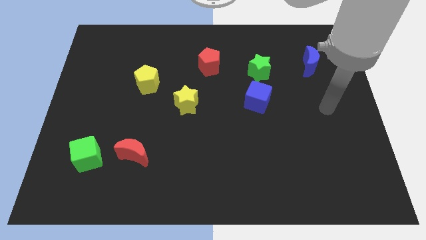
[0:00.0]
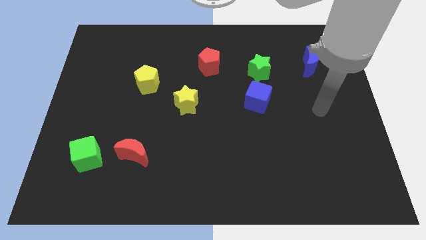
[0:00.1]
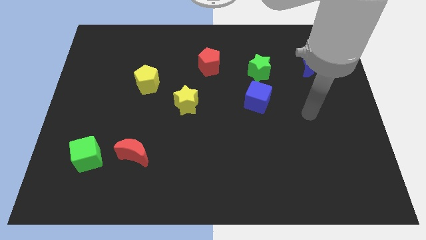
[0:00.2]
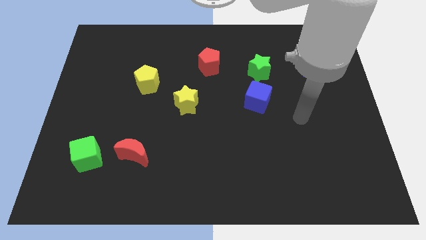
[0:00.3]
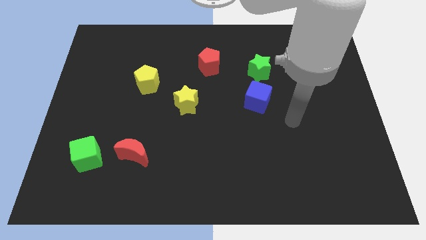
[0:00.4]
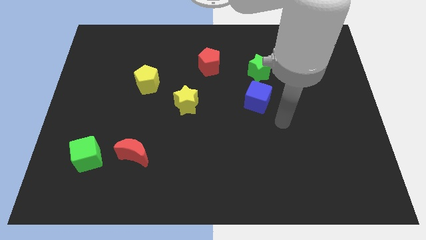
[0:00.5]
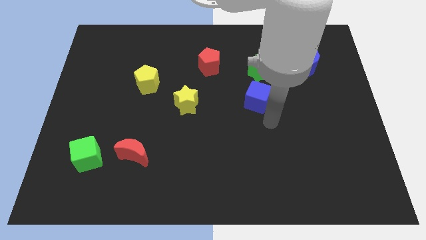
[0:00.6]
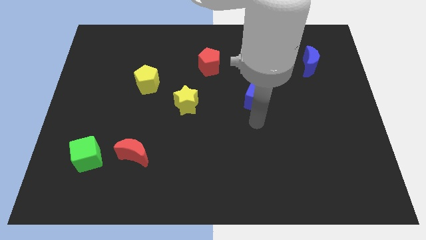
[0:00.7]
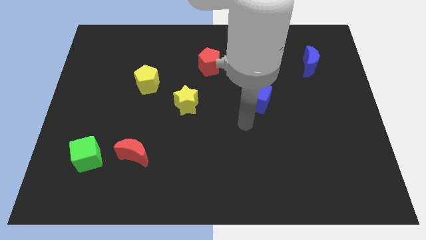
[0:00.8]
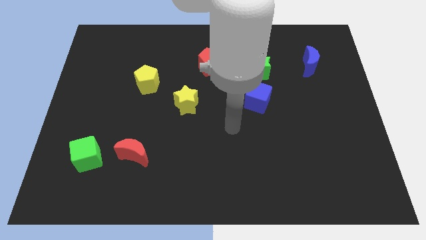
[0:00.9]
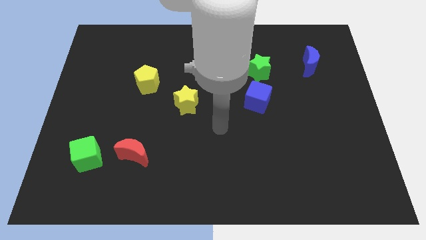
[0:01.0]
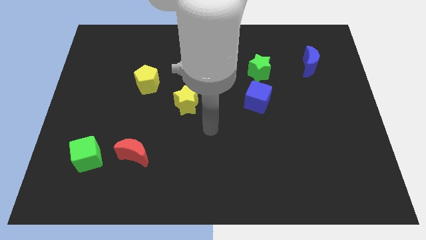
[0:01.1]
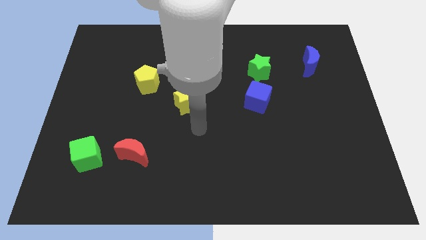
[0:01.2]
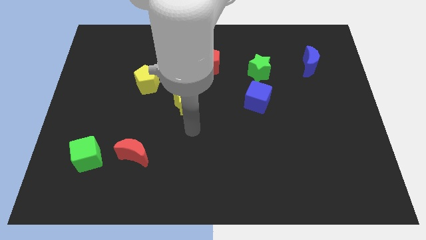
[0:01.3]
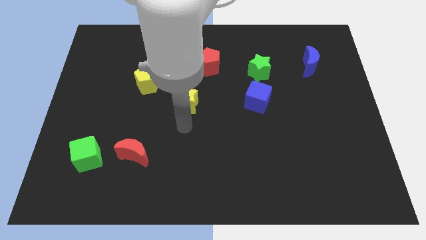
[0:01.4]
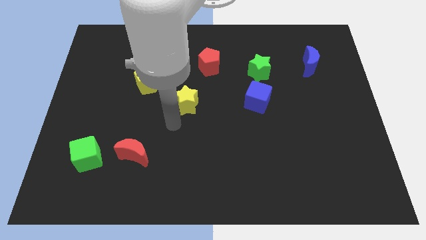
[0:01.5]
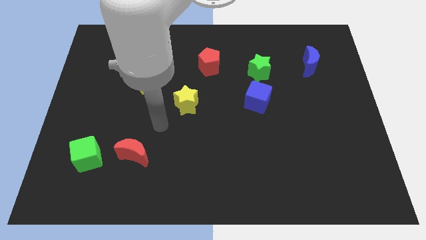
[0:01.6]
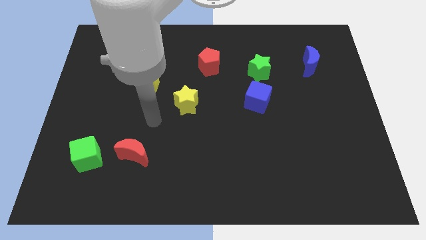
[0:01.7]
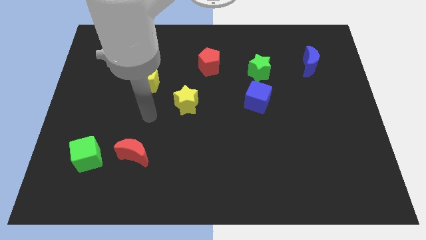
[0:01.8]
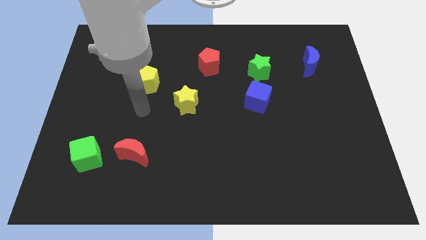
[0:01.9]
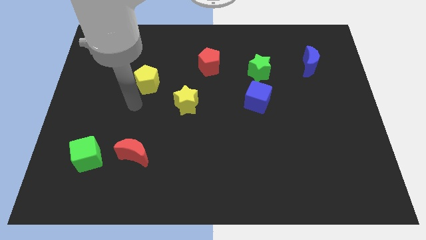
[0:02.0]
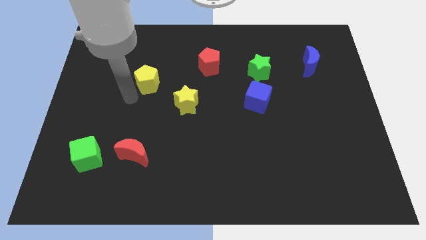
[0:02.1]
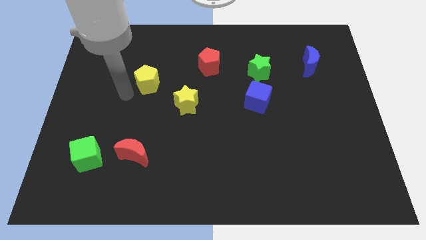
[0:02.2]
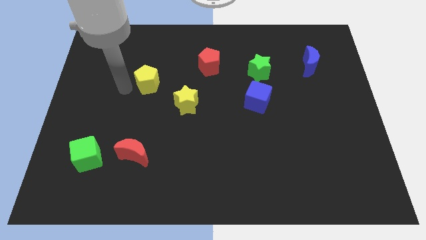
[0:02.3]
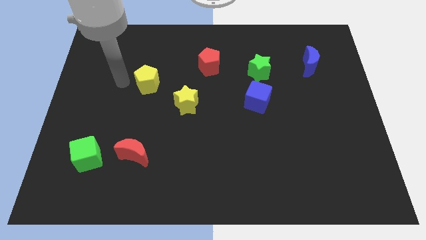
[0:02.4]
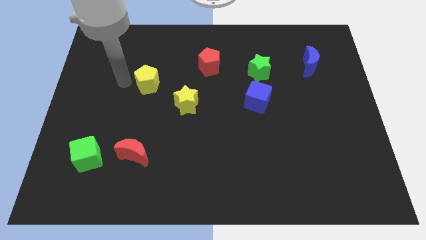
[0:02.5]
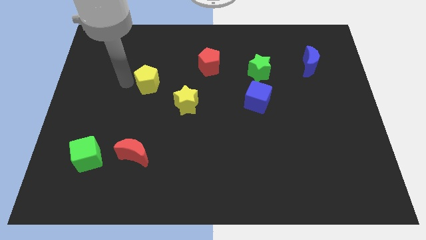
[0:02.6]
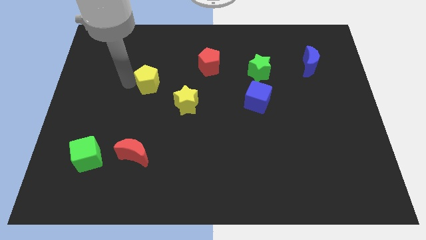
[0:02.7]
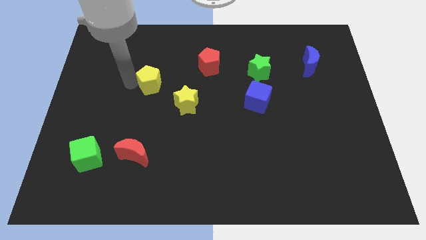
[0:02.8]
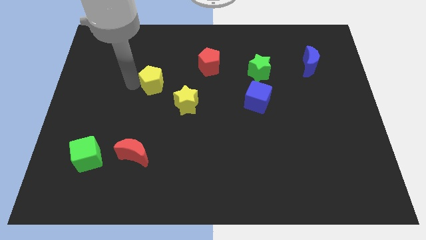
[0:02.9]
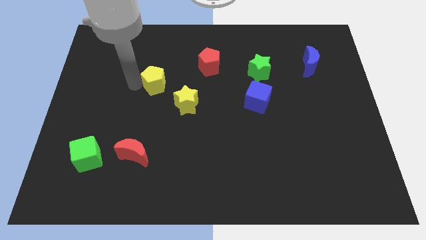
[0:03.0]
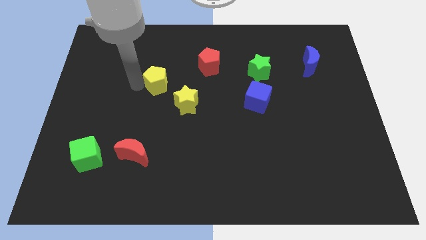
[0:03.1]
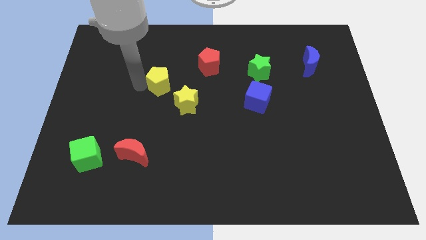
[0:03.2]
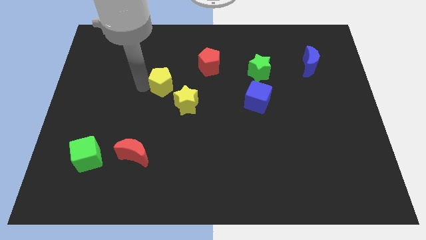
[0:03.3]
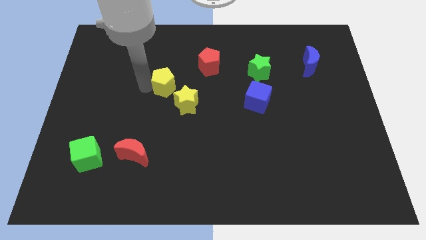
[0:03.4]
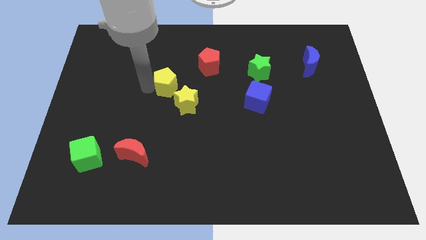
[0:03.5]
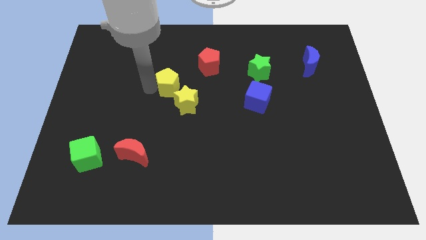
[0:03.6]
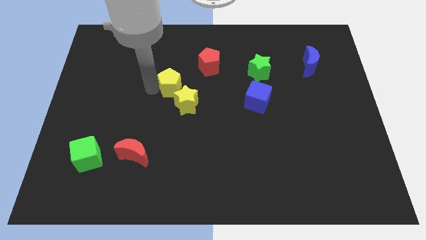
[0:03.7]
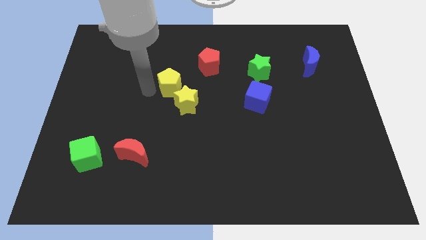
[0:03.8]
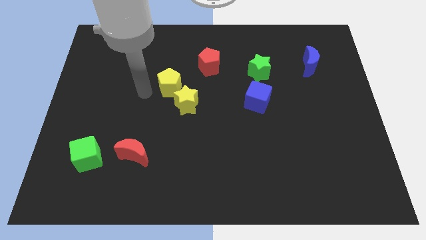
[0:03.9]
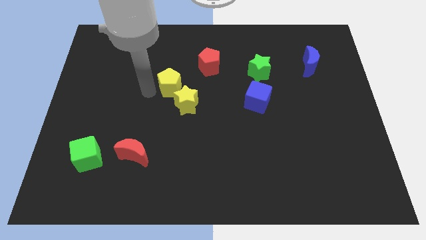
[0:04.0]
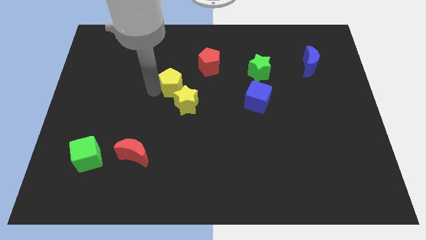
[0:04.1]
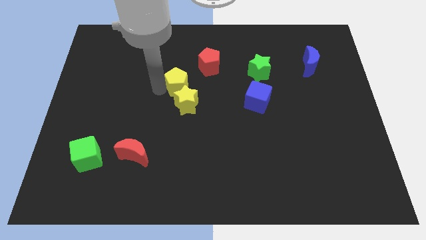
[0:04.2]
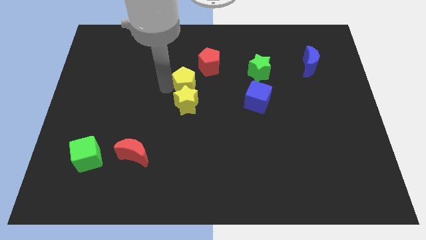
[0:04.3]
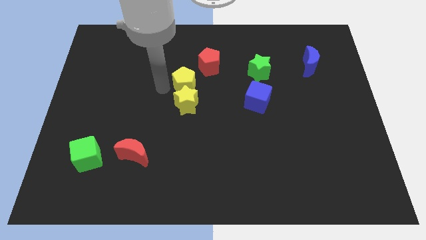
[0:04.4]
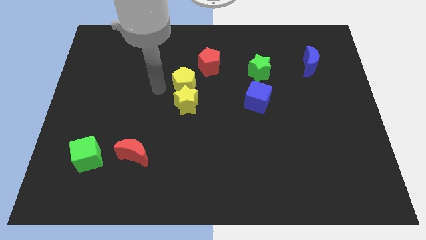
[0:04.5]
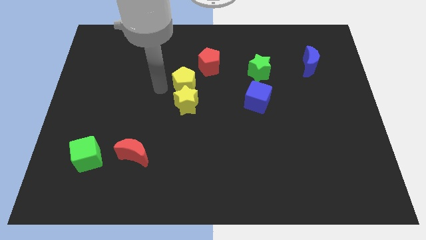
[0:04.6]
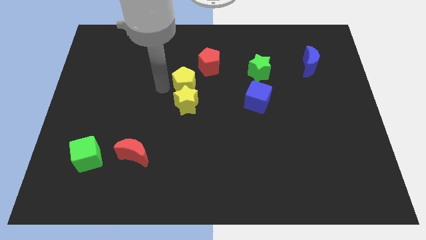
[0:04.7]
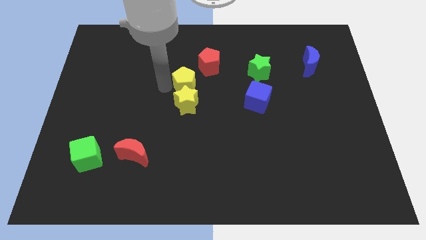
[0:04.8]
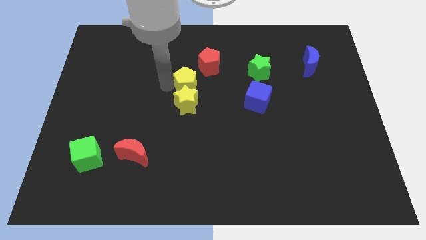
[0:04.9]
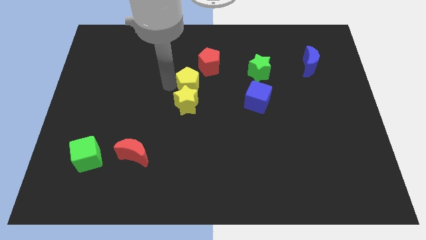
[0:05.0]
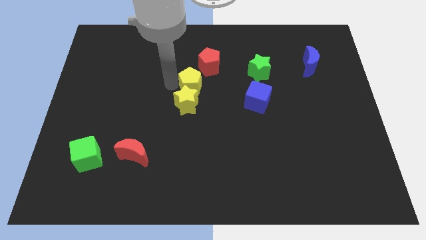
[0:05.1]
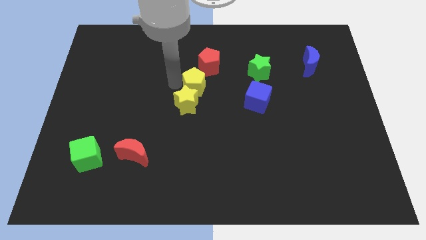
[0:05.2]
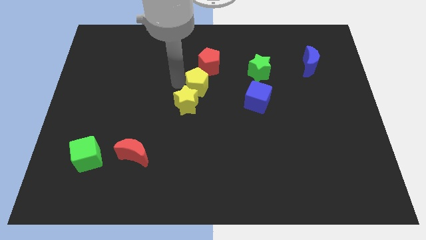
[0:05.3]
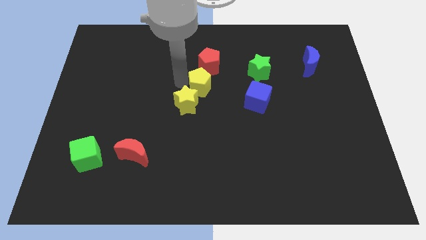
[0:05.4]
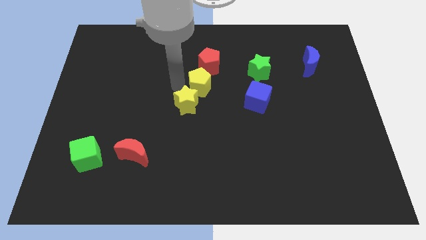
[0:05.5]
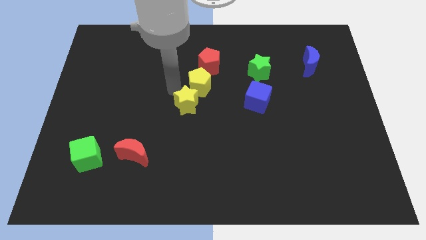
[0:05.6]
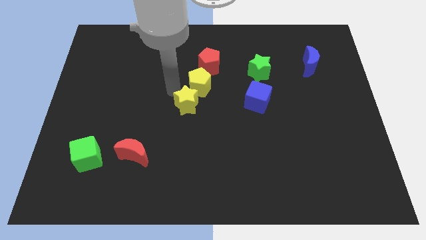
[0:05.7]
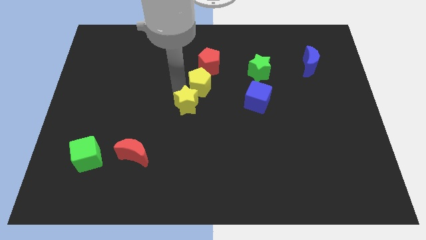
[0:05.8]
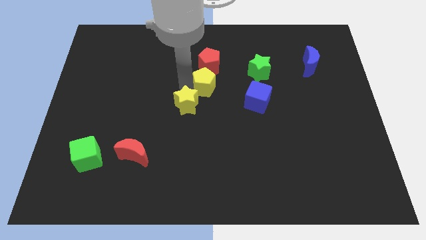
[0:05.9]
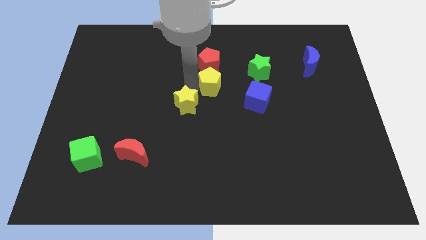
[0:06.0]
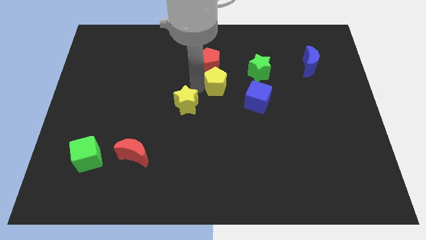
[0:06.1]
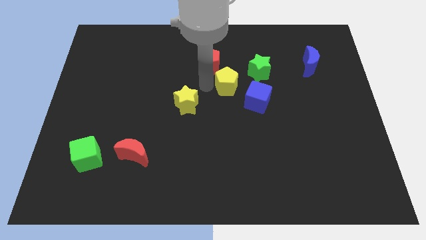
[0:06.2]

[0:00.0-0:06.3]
push the yellow pentagon right

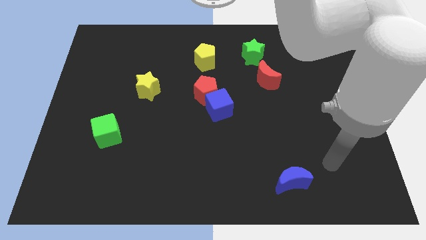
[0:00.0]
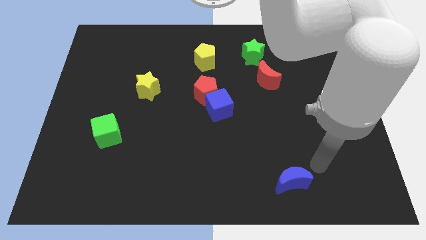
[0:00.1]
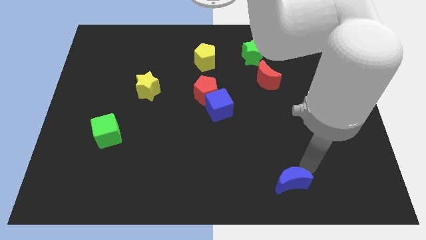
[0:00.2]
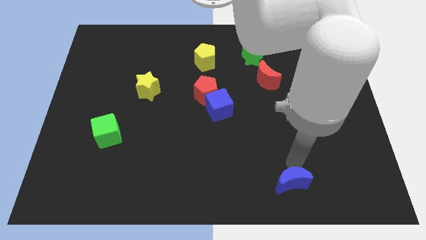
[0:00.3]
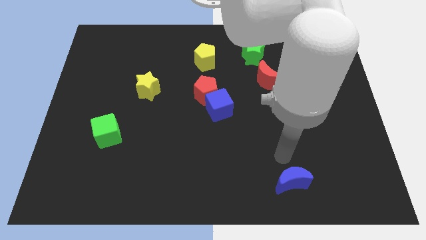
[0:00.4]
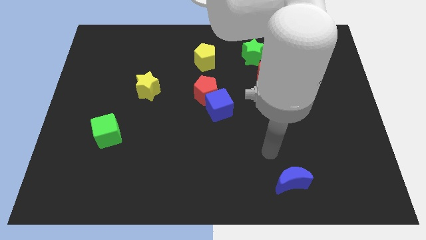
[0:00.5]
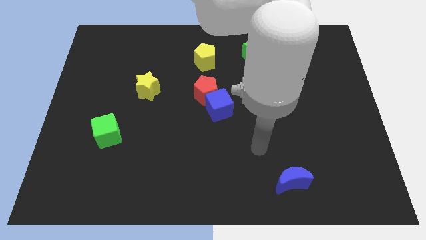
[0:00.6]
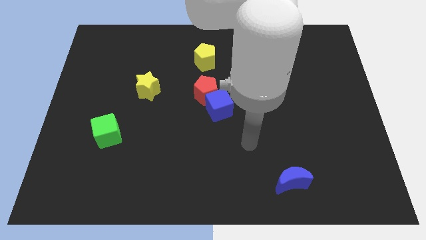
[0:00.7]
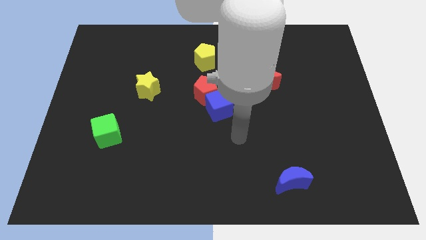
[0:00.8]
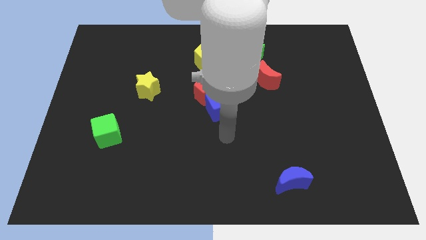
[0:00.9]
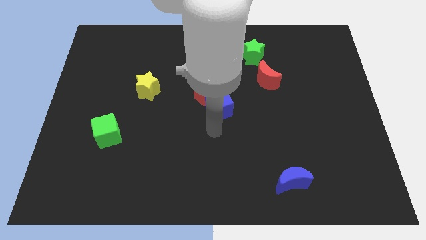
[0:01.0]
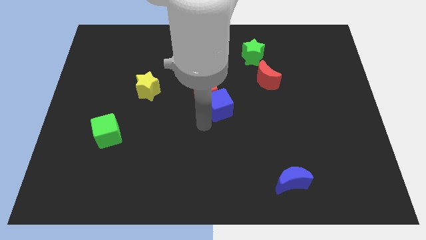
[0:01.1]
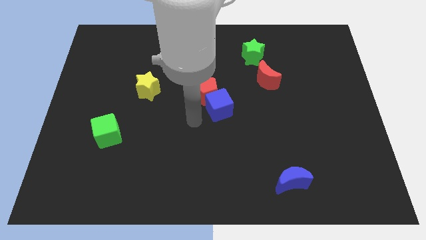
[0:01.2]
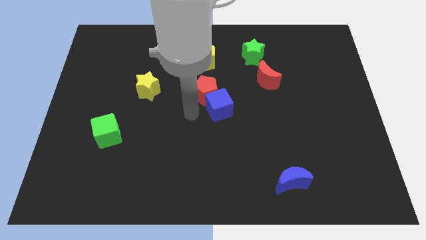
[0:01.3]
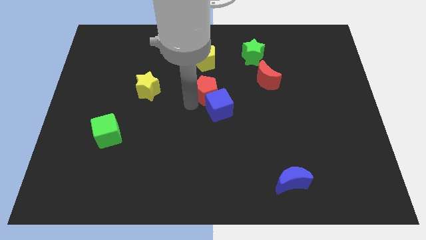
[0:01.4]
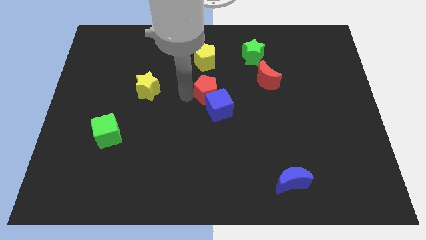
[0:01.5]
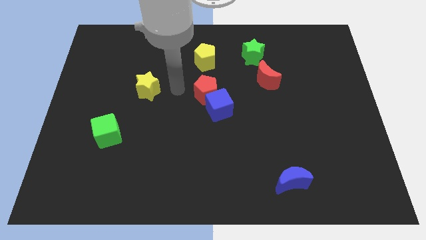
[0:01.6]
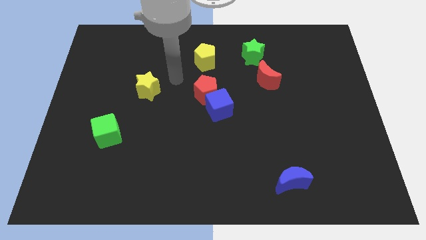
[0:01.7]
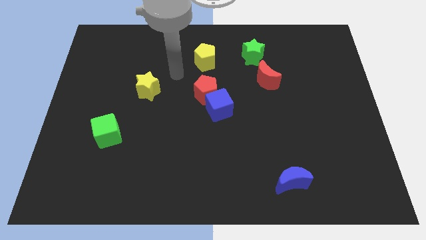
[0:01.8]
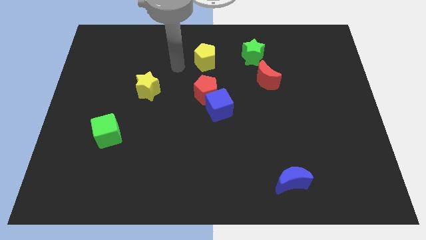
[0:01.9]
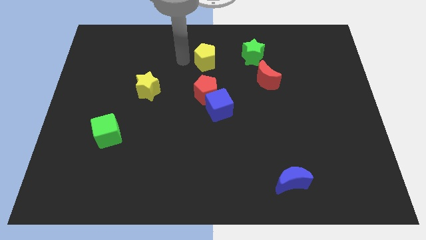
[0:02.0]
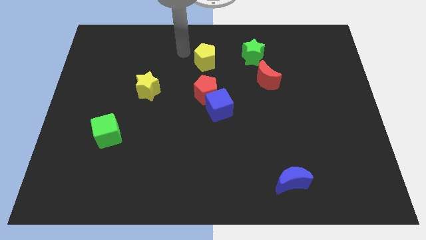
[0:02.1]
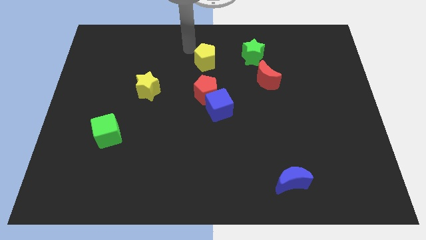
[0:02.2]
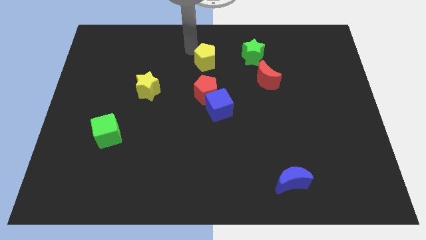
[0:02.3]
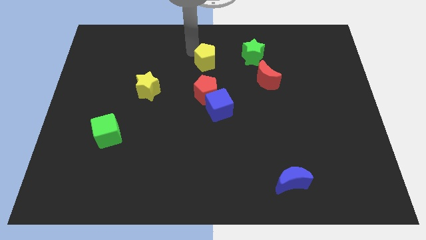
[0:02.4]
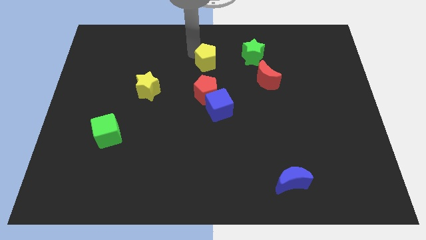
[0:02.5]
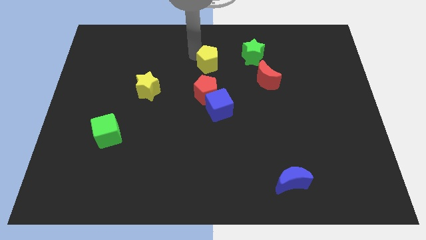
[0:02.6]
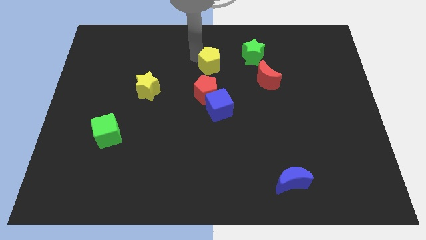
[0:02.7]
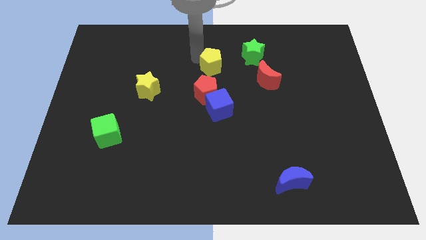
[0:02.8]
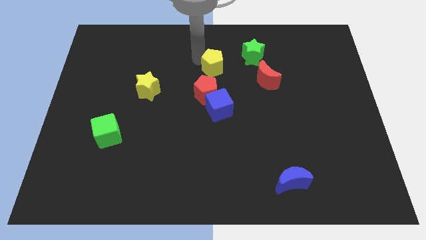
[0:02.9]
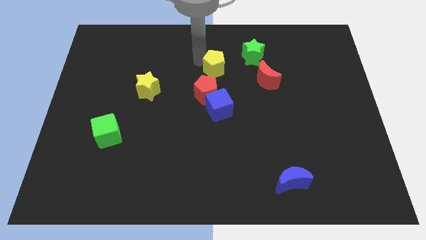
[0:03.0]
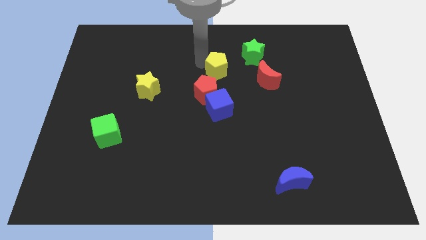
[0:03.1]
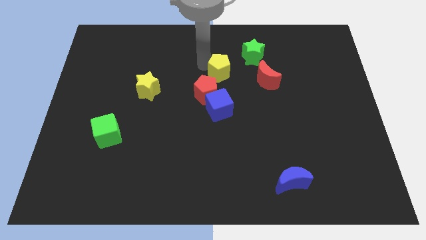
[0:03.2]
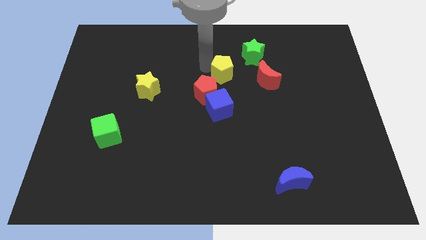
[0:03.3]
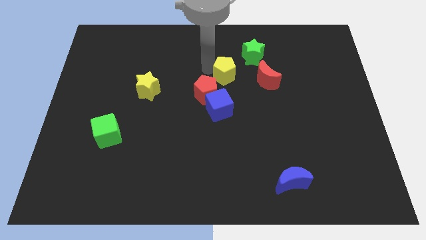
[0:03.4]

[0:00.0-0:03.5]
slightly push the yellow pentagon diagonally down and to the right
